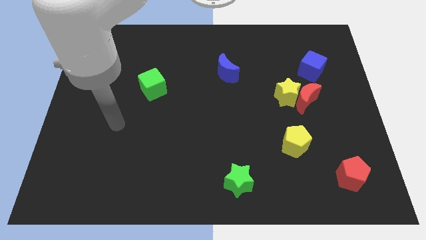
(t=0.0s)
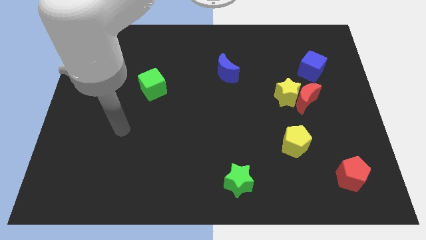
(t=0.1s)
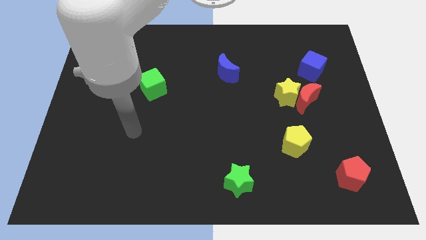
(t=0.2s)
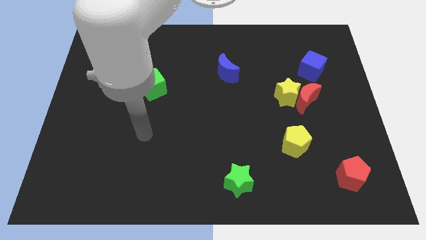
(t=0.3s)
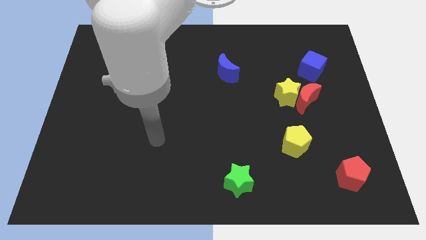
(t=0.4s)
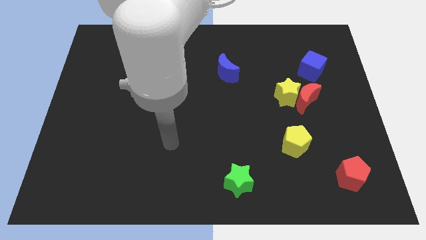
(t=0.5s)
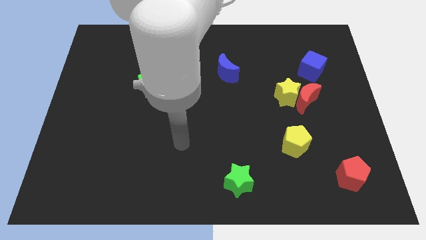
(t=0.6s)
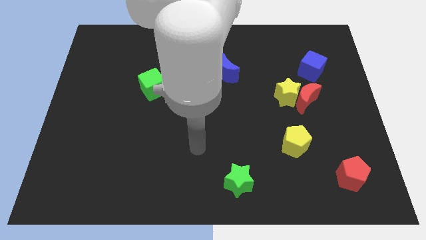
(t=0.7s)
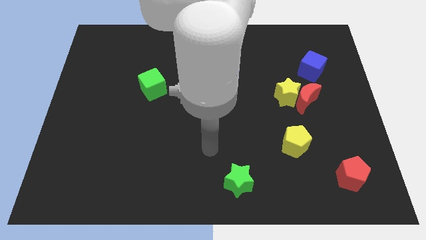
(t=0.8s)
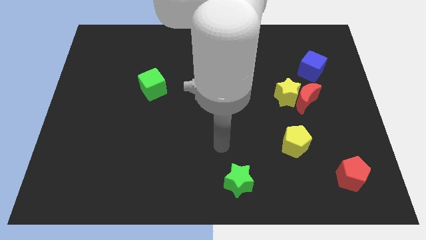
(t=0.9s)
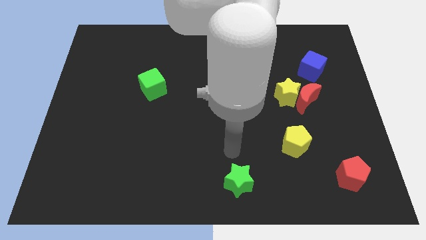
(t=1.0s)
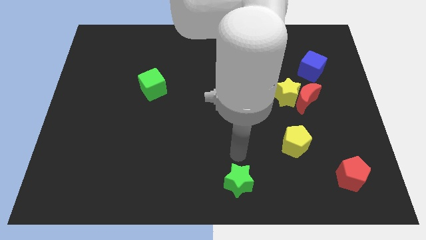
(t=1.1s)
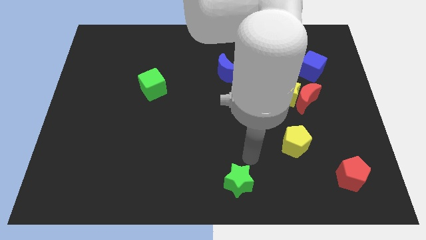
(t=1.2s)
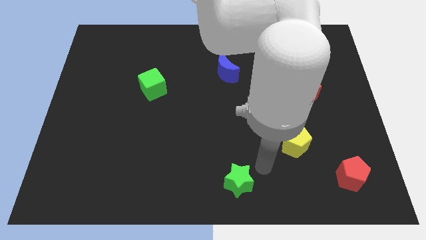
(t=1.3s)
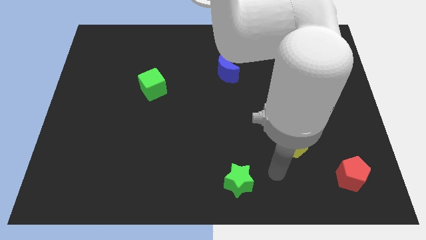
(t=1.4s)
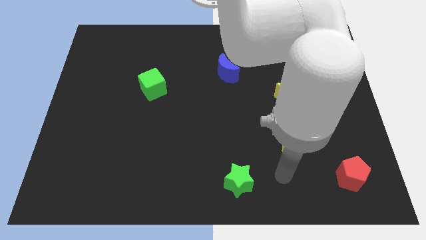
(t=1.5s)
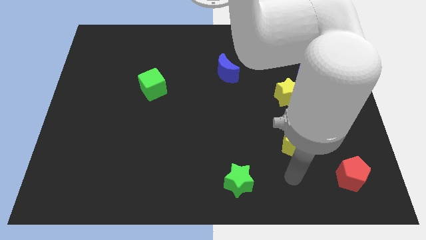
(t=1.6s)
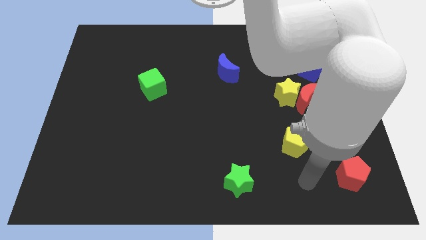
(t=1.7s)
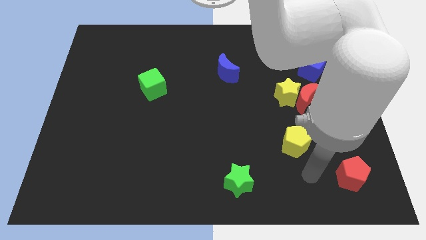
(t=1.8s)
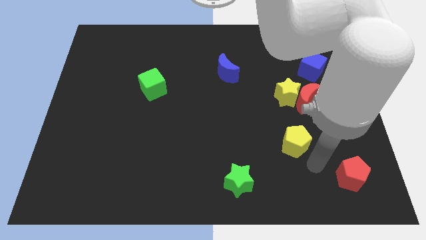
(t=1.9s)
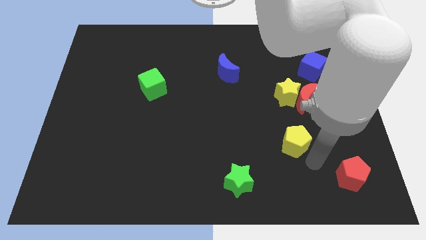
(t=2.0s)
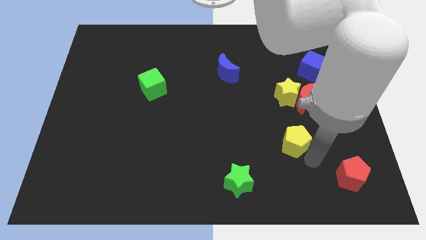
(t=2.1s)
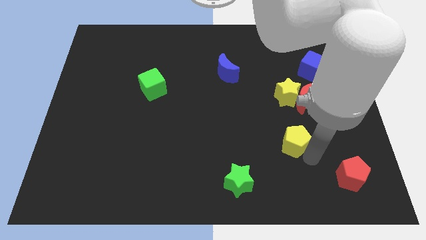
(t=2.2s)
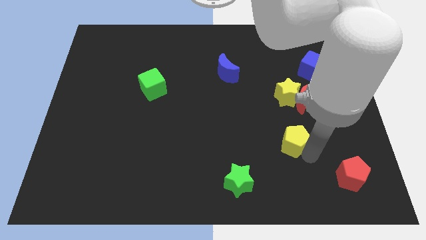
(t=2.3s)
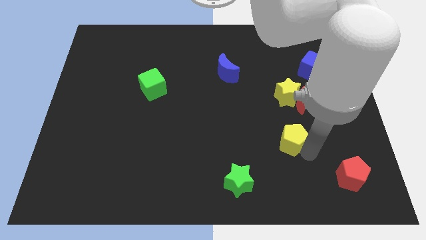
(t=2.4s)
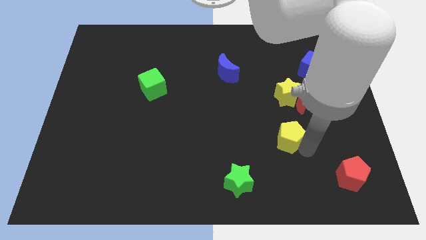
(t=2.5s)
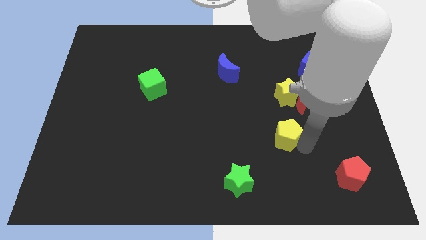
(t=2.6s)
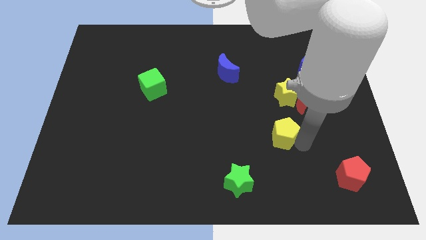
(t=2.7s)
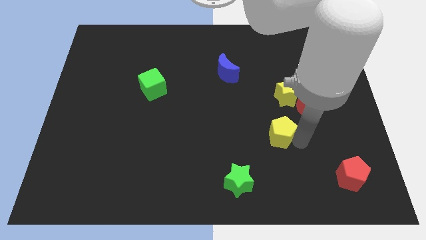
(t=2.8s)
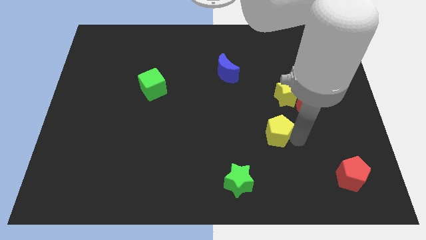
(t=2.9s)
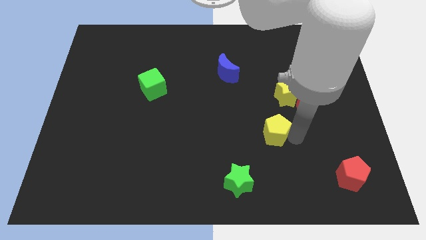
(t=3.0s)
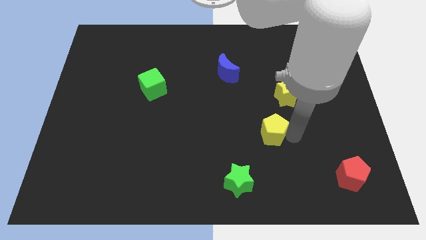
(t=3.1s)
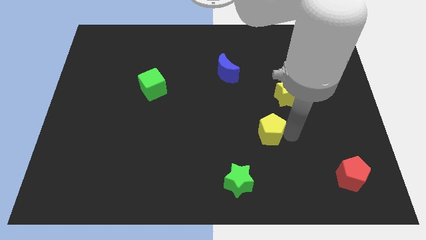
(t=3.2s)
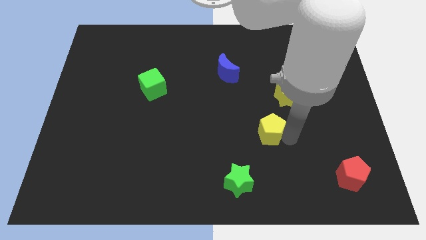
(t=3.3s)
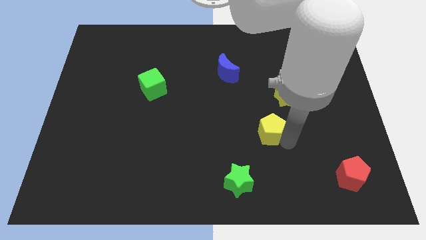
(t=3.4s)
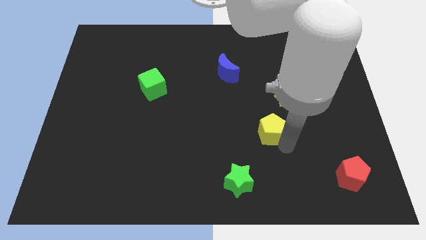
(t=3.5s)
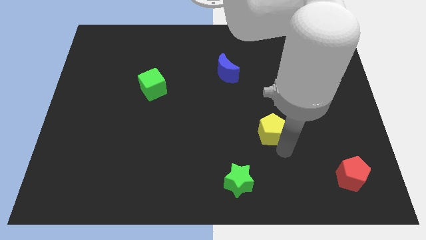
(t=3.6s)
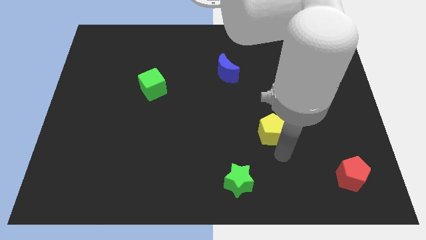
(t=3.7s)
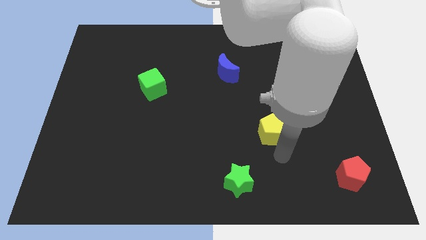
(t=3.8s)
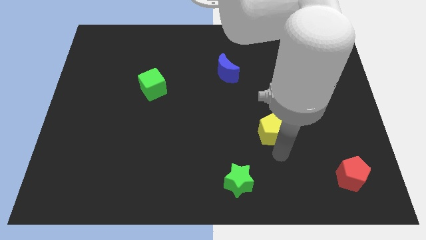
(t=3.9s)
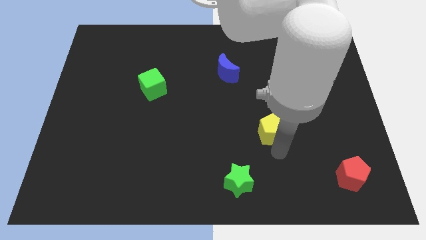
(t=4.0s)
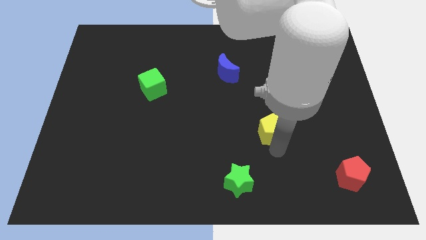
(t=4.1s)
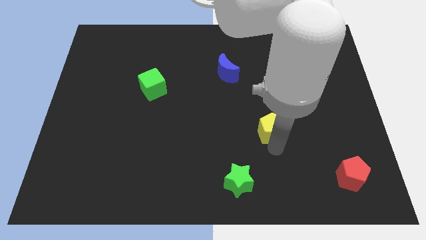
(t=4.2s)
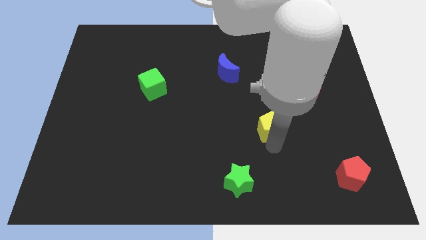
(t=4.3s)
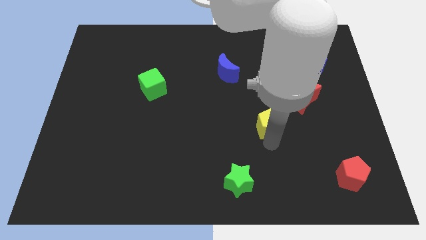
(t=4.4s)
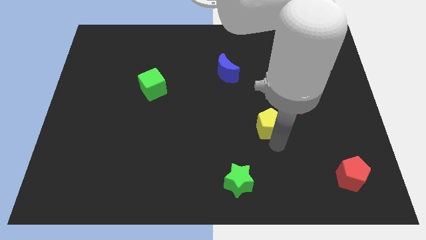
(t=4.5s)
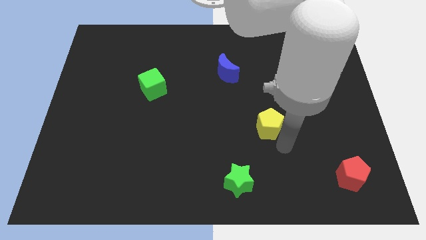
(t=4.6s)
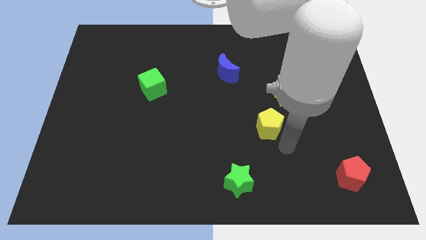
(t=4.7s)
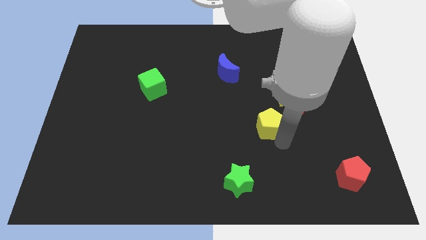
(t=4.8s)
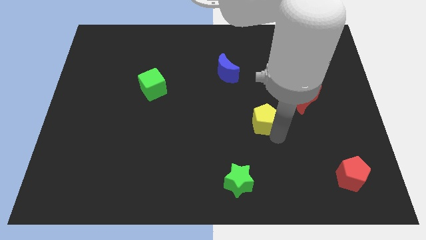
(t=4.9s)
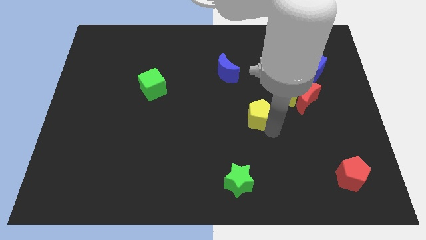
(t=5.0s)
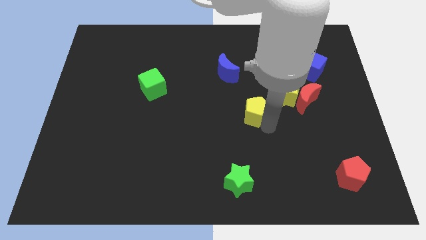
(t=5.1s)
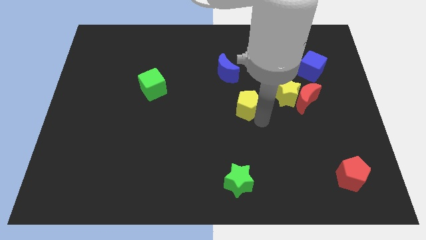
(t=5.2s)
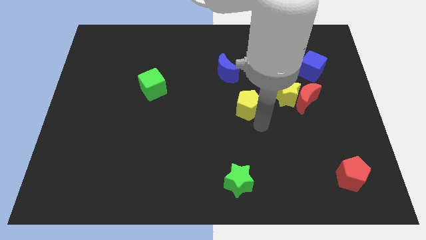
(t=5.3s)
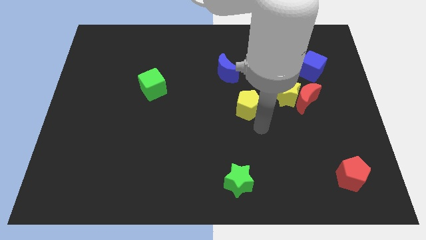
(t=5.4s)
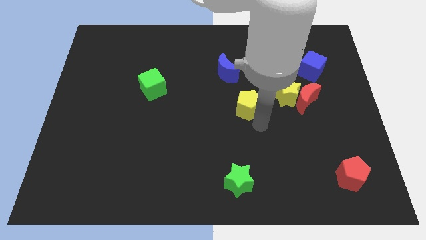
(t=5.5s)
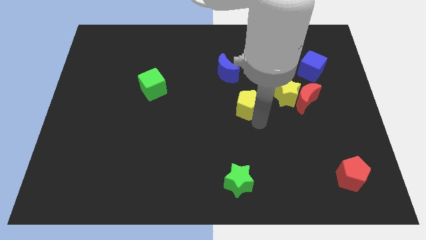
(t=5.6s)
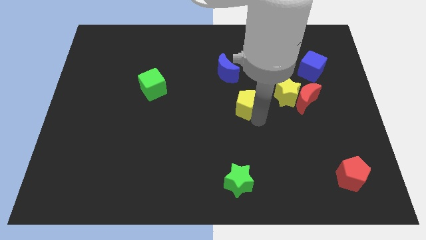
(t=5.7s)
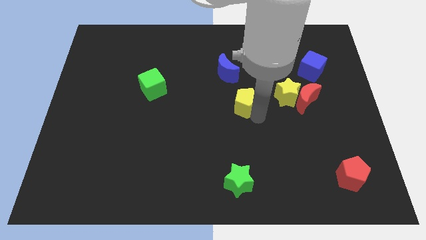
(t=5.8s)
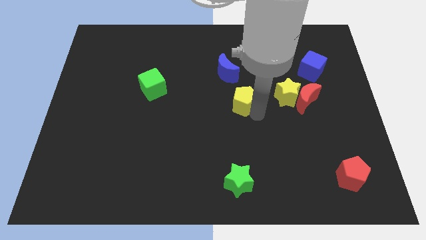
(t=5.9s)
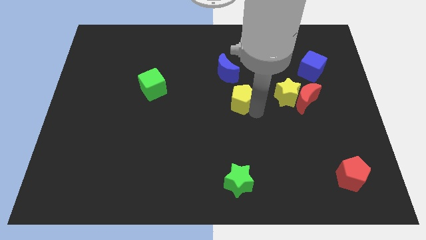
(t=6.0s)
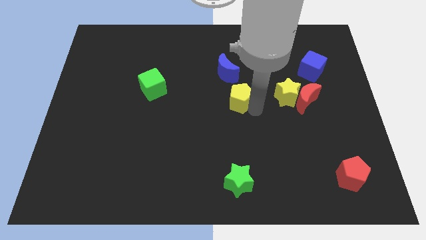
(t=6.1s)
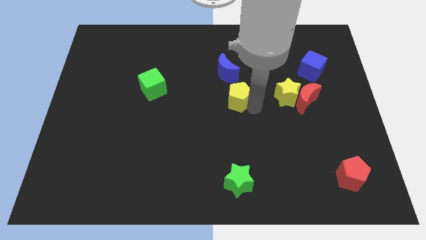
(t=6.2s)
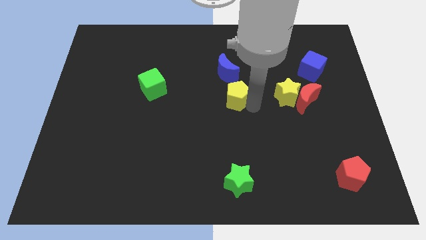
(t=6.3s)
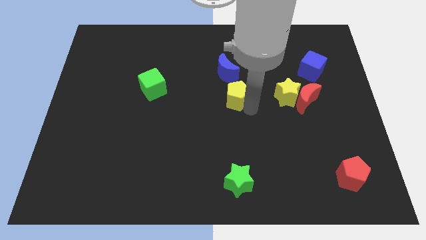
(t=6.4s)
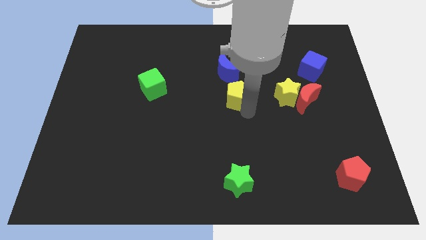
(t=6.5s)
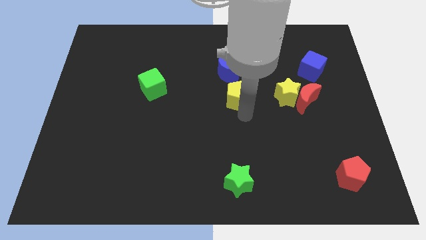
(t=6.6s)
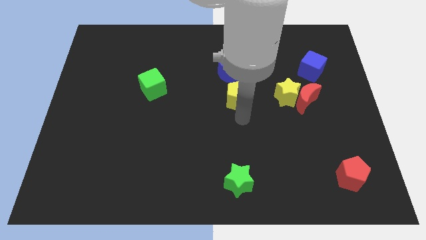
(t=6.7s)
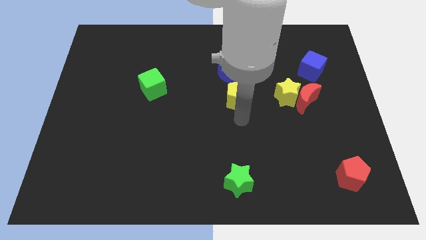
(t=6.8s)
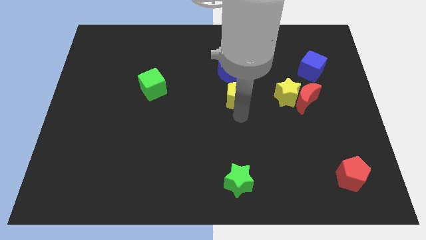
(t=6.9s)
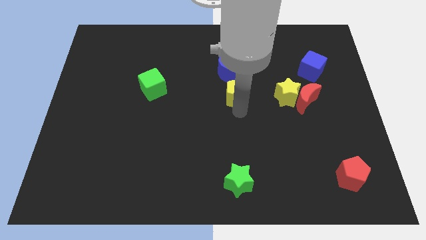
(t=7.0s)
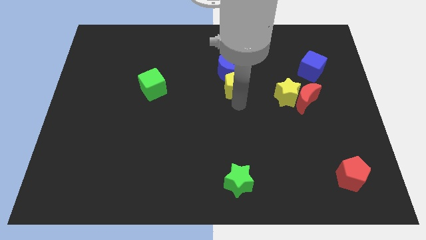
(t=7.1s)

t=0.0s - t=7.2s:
slide the yellow pentagon towards the blue moon
